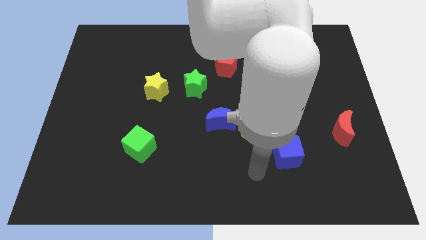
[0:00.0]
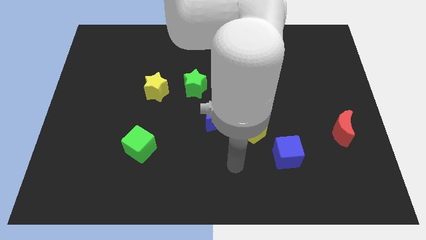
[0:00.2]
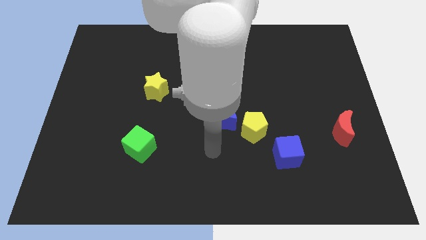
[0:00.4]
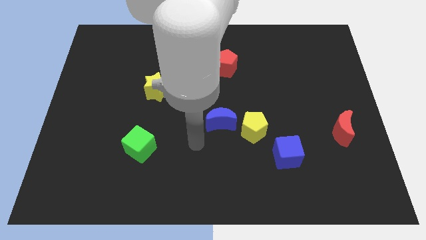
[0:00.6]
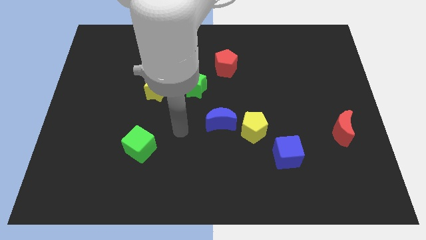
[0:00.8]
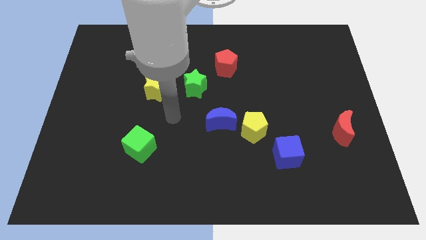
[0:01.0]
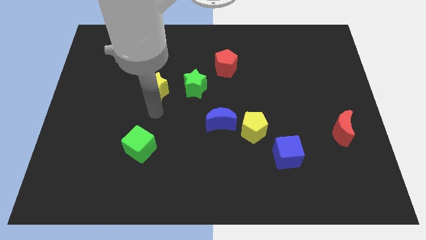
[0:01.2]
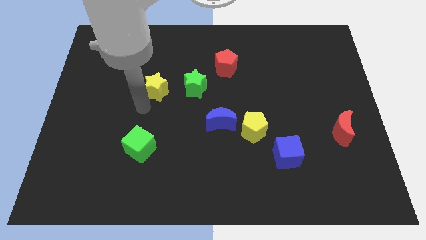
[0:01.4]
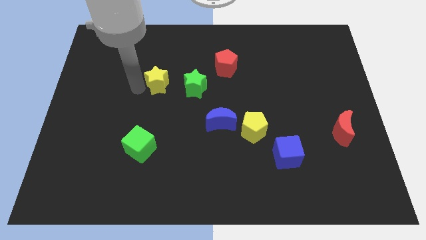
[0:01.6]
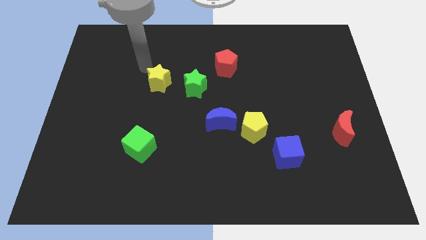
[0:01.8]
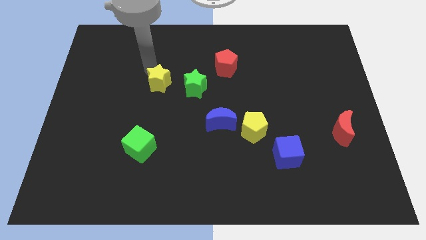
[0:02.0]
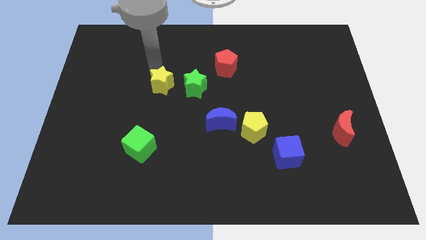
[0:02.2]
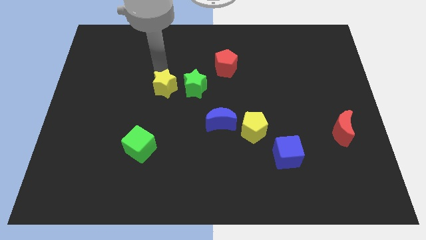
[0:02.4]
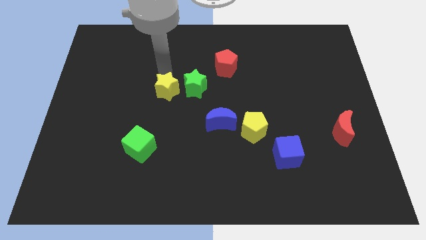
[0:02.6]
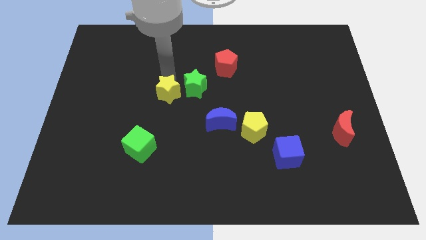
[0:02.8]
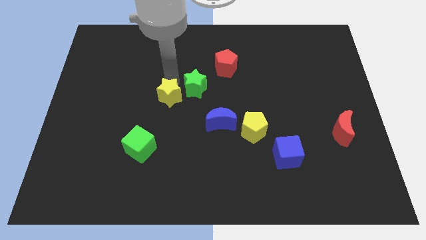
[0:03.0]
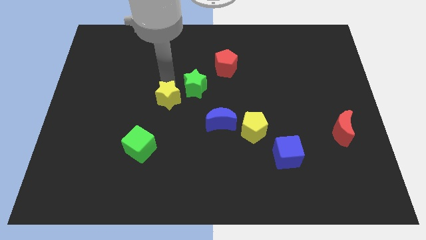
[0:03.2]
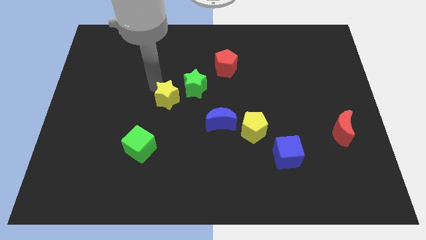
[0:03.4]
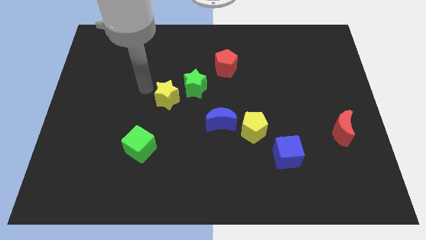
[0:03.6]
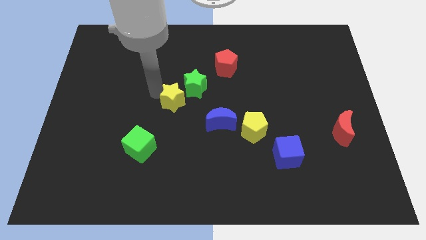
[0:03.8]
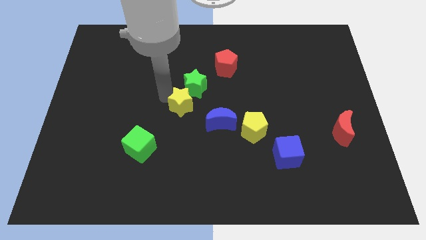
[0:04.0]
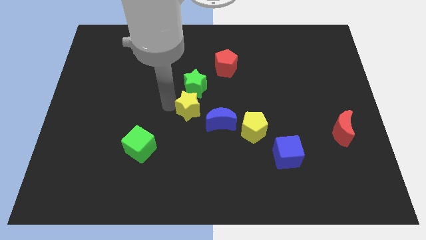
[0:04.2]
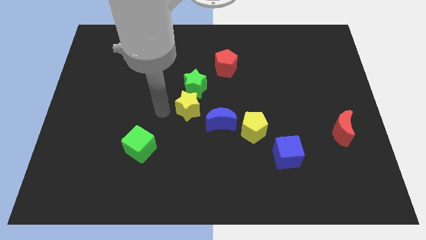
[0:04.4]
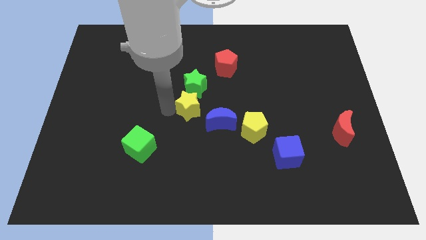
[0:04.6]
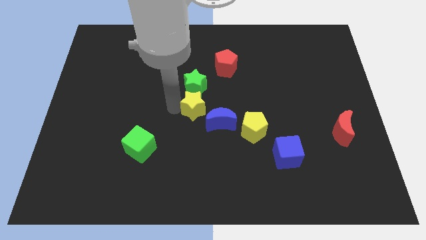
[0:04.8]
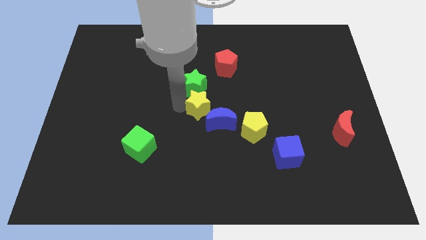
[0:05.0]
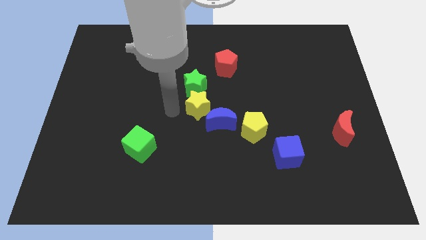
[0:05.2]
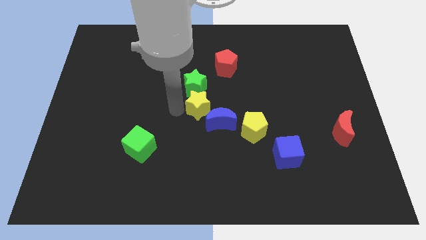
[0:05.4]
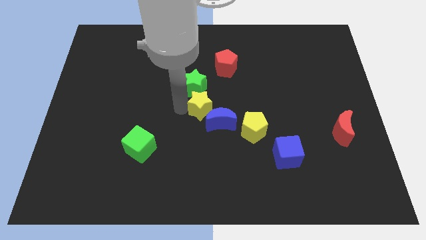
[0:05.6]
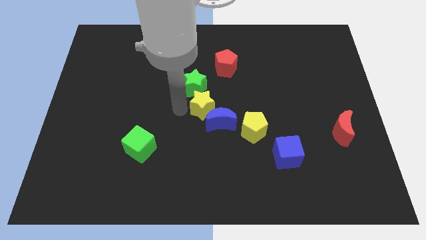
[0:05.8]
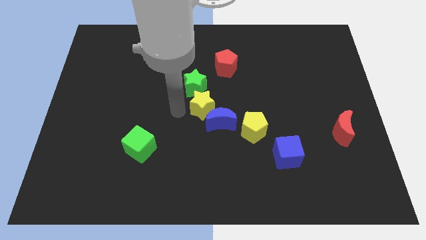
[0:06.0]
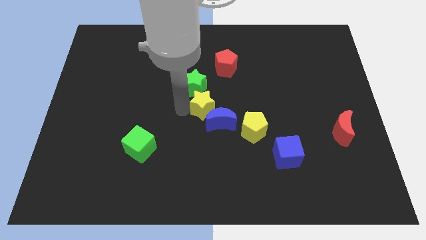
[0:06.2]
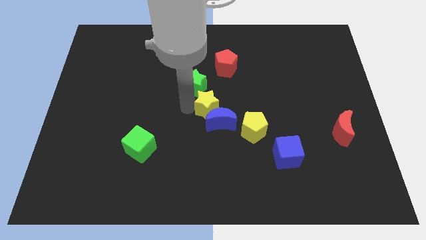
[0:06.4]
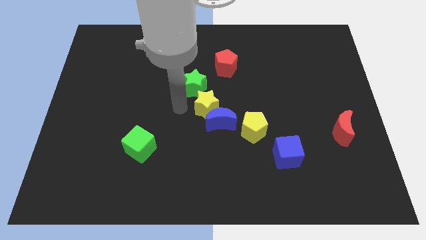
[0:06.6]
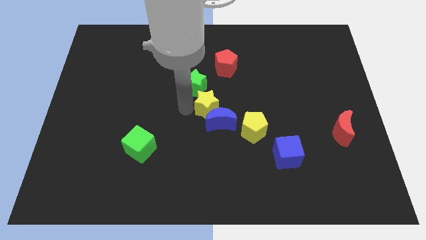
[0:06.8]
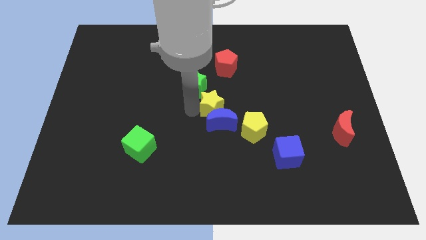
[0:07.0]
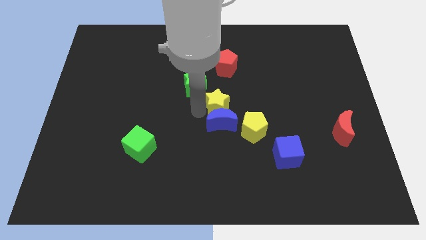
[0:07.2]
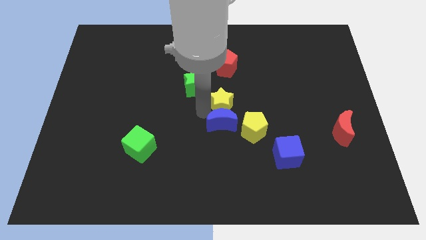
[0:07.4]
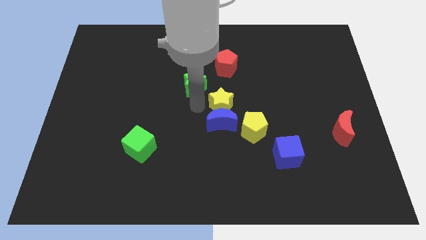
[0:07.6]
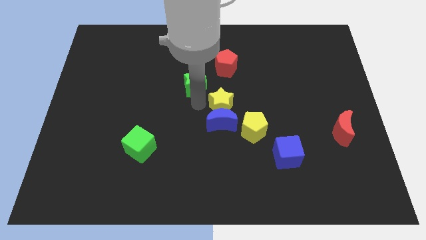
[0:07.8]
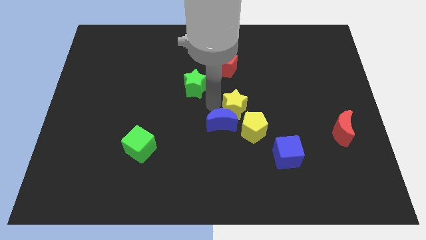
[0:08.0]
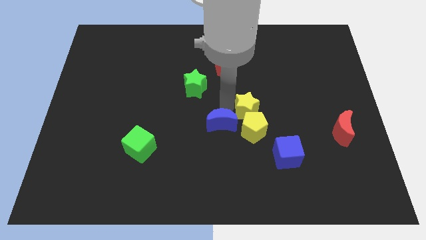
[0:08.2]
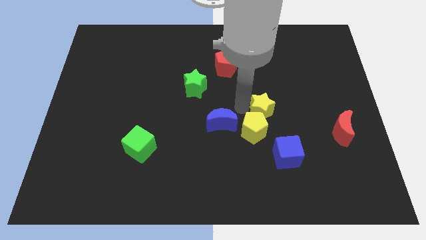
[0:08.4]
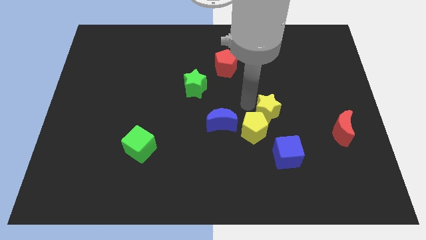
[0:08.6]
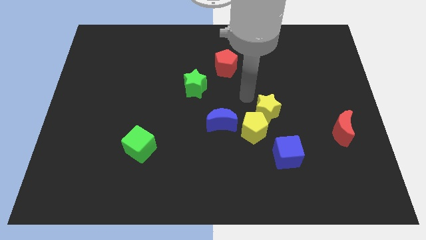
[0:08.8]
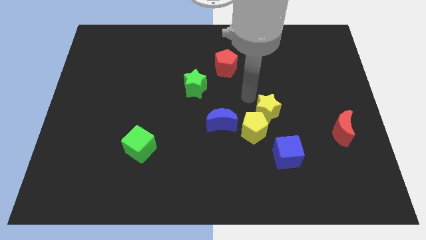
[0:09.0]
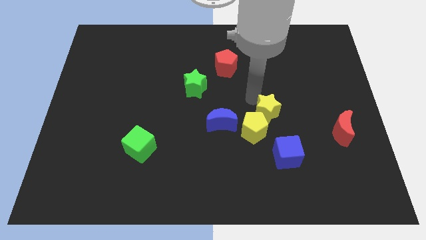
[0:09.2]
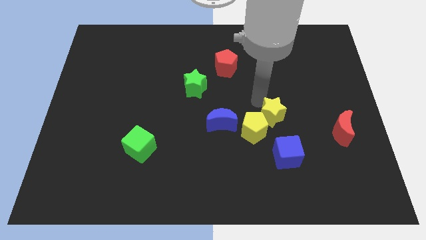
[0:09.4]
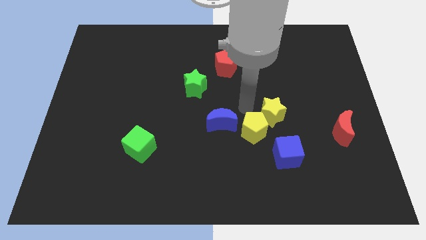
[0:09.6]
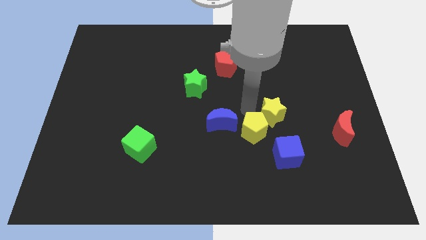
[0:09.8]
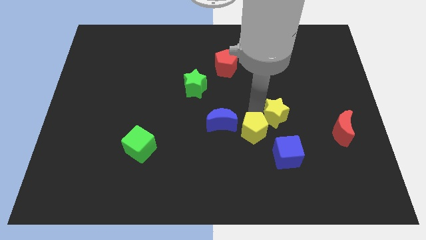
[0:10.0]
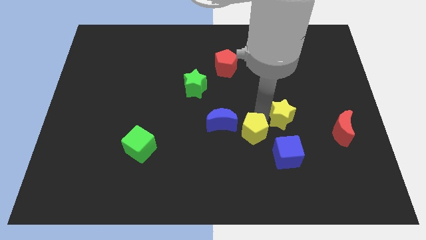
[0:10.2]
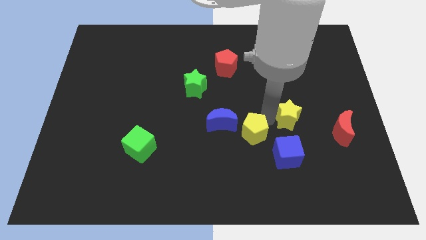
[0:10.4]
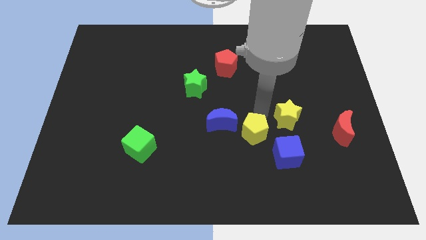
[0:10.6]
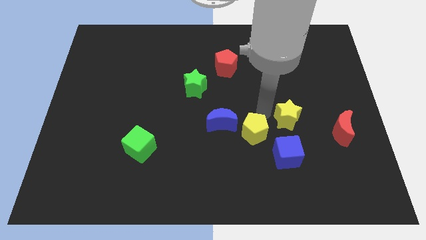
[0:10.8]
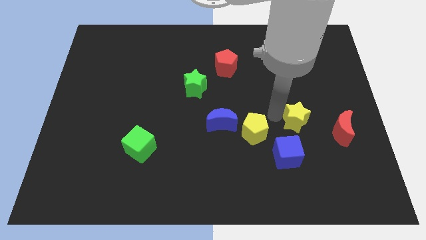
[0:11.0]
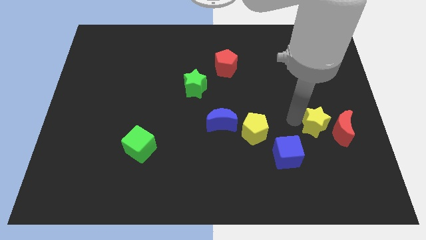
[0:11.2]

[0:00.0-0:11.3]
slide the yellow star towards the red moon

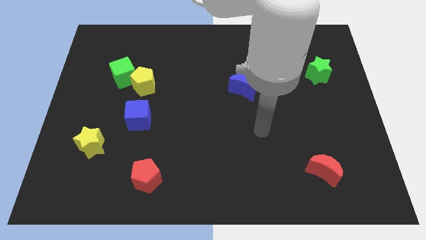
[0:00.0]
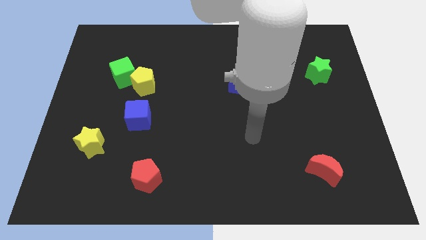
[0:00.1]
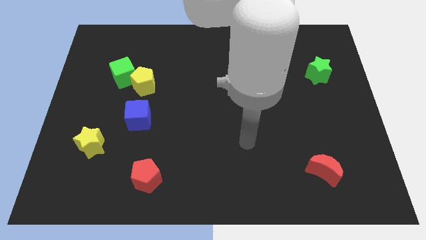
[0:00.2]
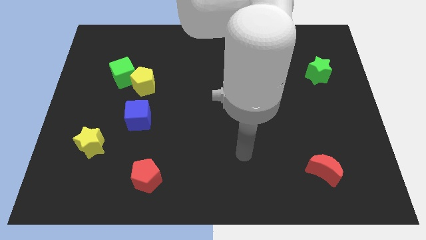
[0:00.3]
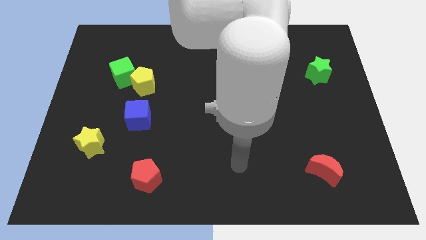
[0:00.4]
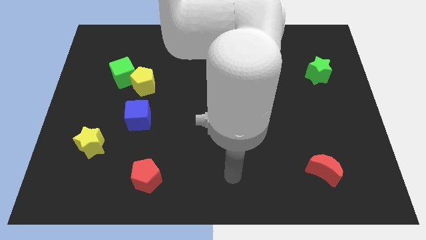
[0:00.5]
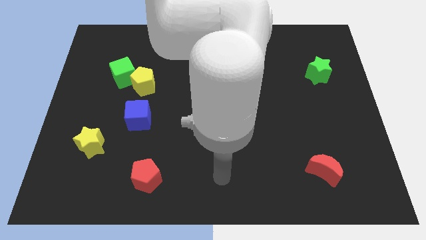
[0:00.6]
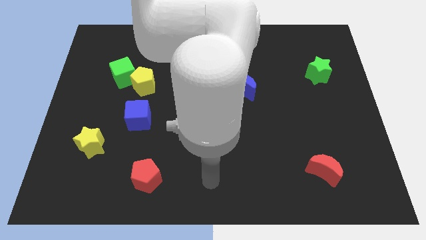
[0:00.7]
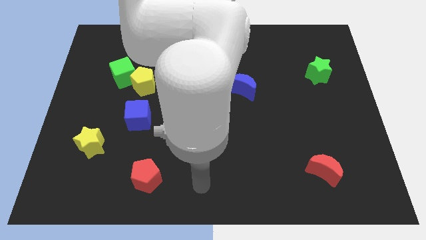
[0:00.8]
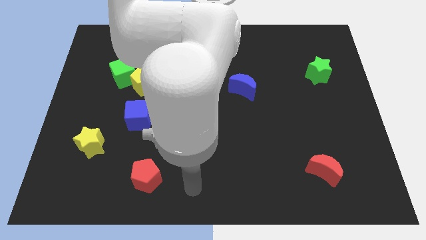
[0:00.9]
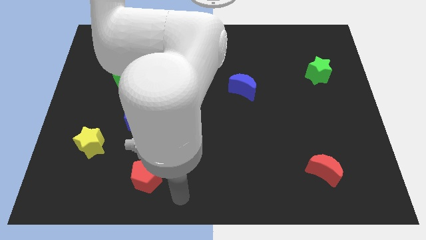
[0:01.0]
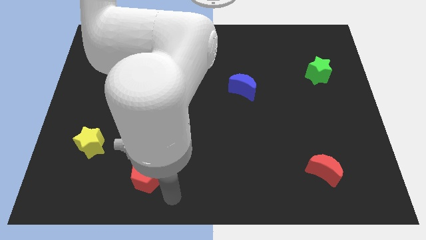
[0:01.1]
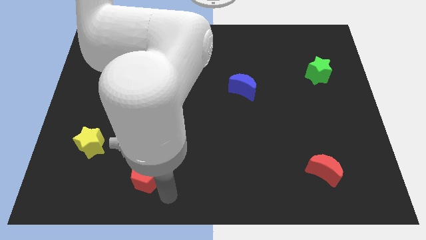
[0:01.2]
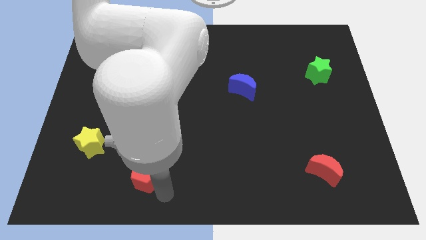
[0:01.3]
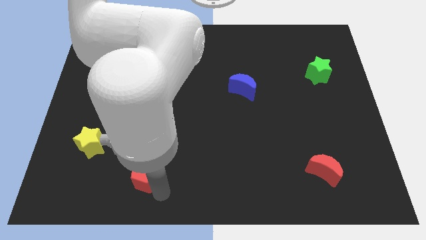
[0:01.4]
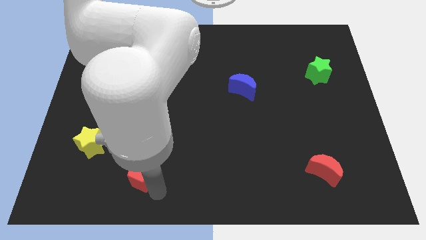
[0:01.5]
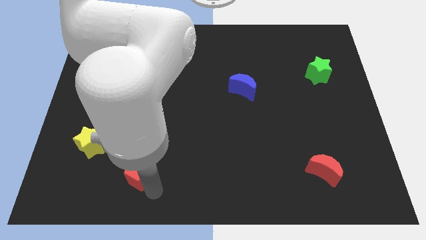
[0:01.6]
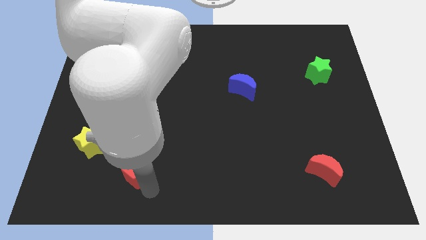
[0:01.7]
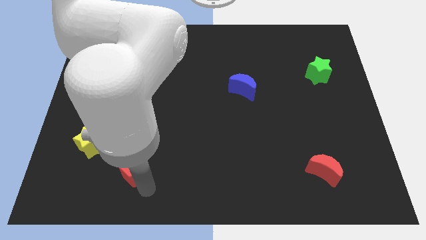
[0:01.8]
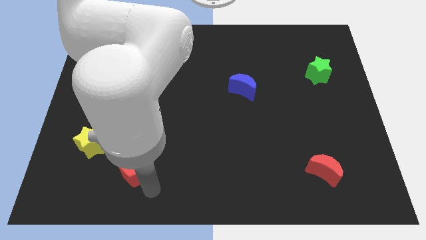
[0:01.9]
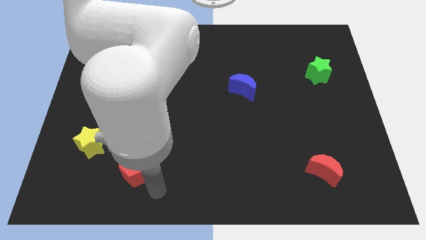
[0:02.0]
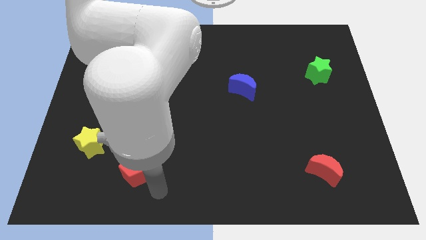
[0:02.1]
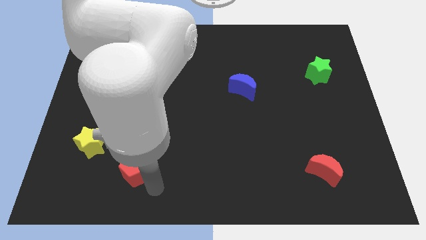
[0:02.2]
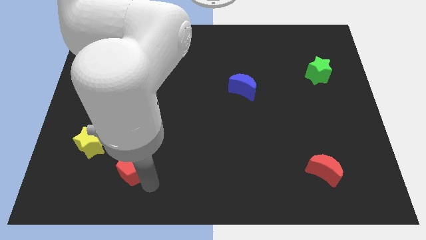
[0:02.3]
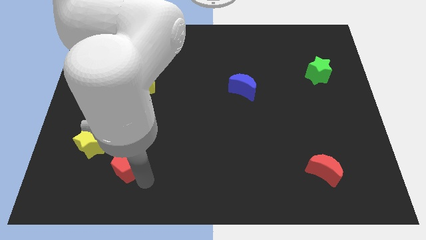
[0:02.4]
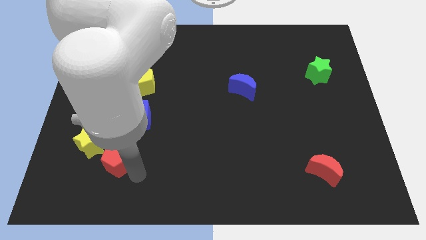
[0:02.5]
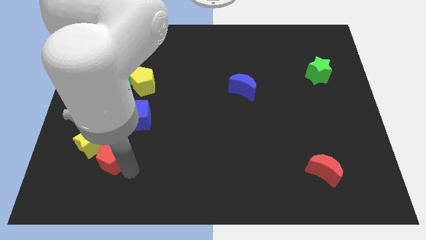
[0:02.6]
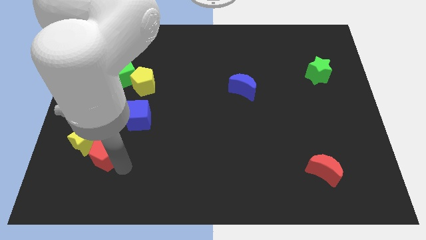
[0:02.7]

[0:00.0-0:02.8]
put the red pentagon to the yellow star
